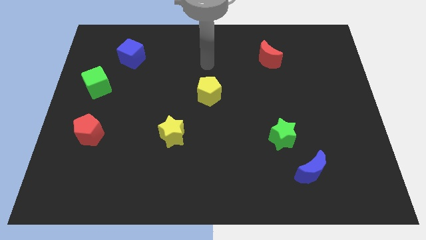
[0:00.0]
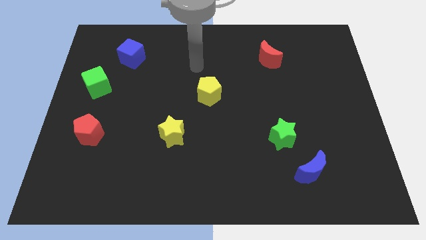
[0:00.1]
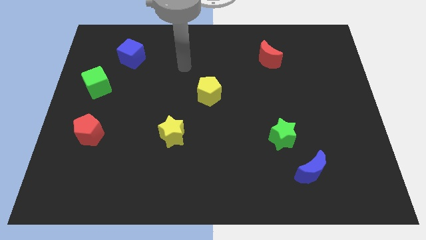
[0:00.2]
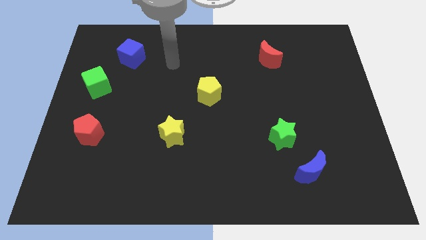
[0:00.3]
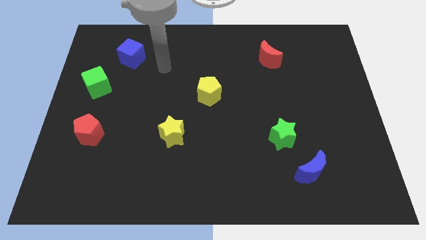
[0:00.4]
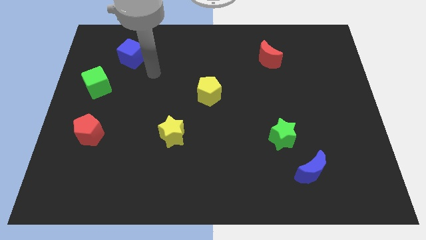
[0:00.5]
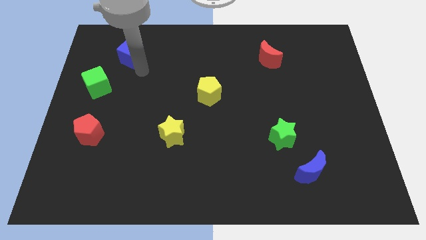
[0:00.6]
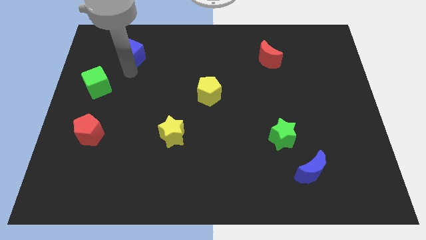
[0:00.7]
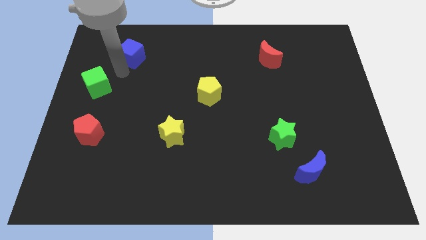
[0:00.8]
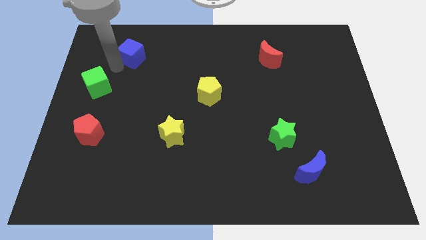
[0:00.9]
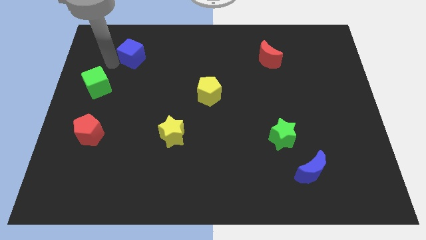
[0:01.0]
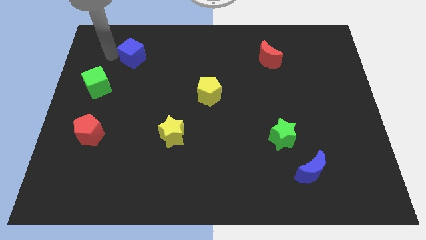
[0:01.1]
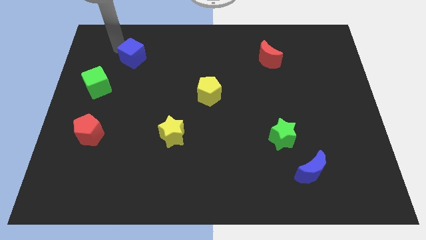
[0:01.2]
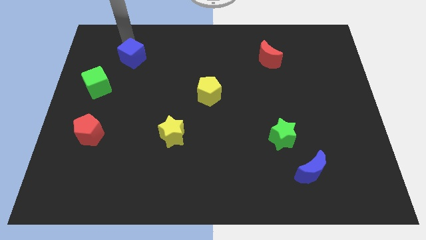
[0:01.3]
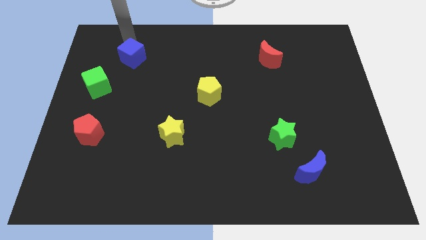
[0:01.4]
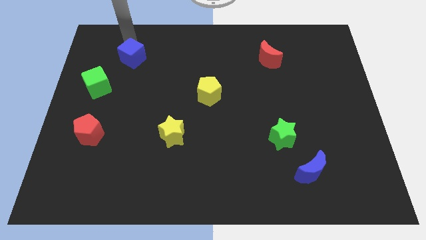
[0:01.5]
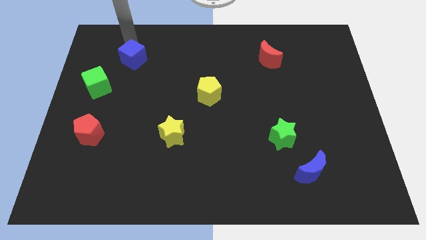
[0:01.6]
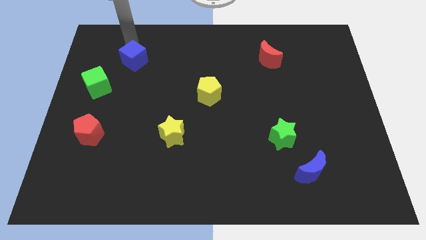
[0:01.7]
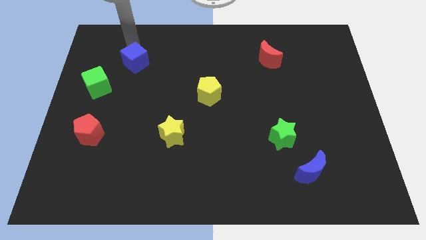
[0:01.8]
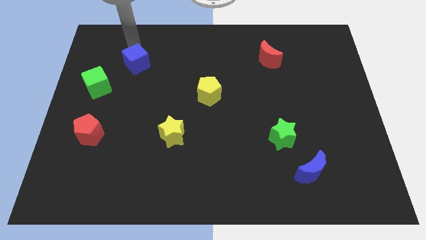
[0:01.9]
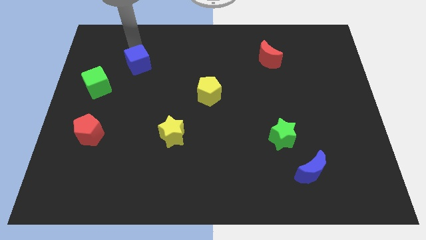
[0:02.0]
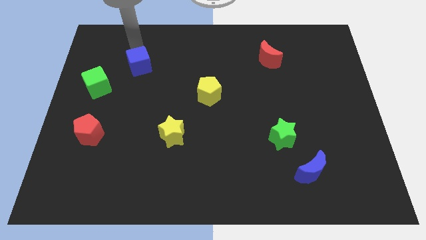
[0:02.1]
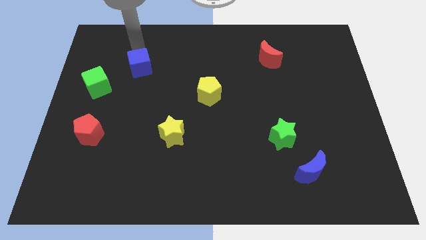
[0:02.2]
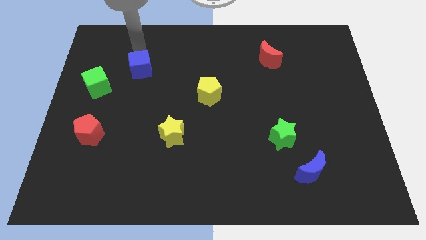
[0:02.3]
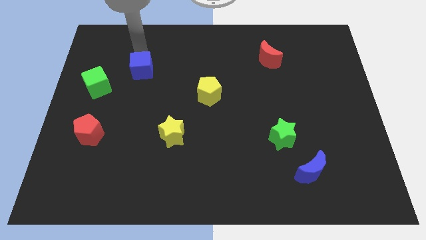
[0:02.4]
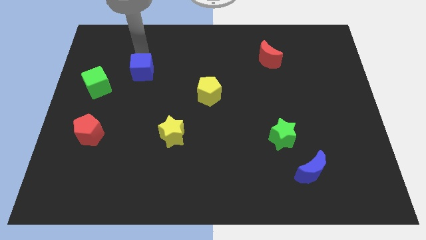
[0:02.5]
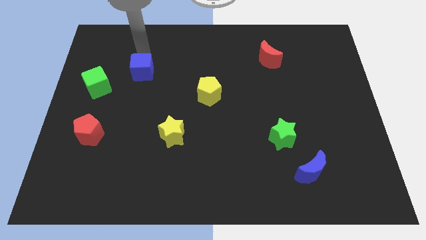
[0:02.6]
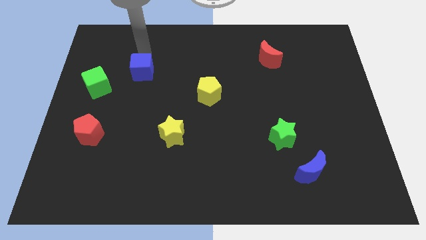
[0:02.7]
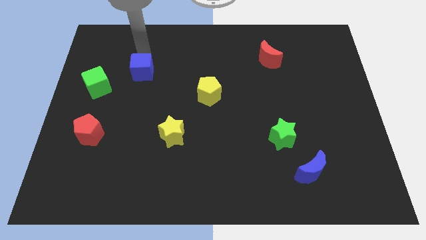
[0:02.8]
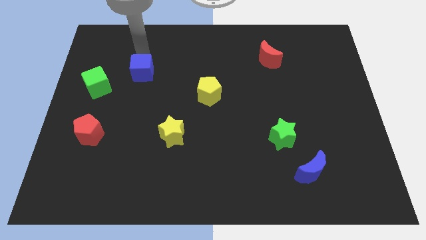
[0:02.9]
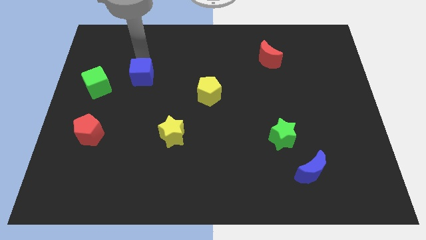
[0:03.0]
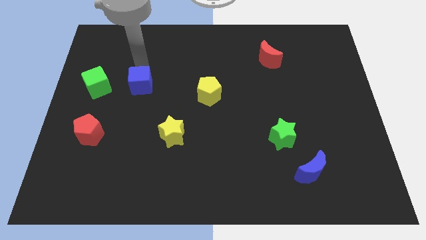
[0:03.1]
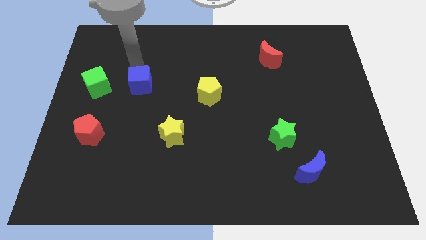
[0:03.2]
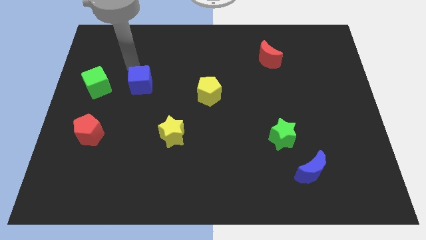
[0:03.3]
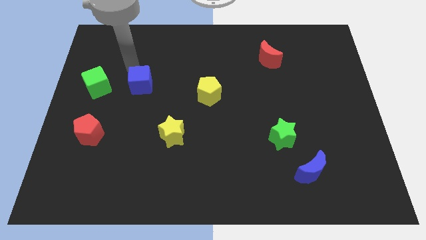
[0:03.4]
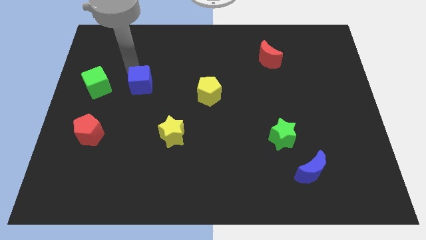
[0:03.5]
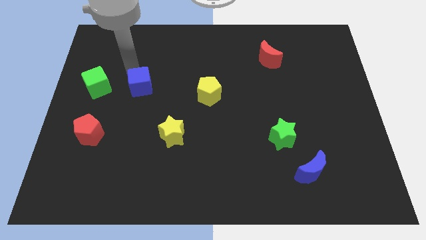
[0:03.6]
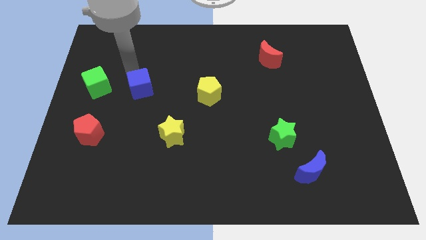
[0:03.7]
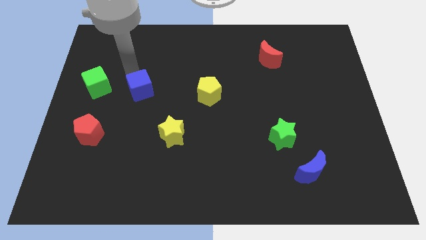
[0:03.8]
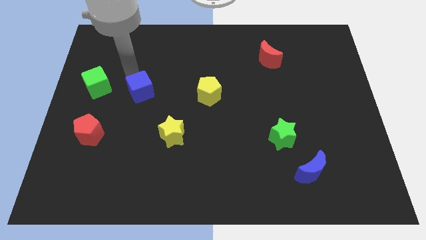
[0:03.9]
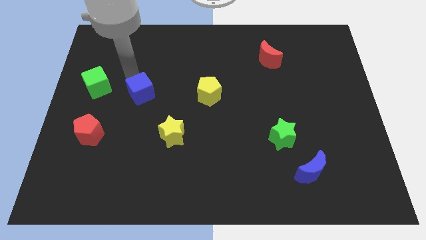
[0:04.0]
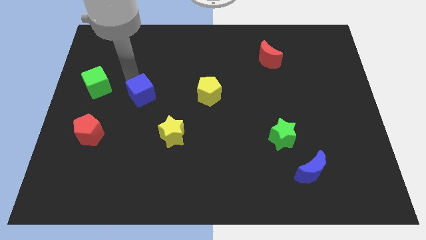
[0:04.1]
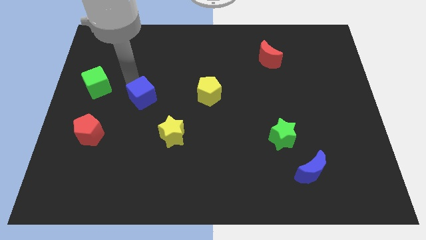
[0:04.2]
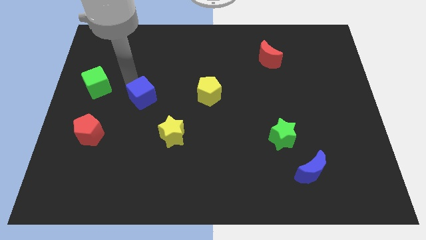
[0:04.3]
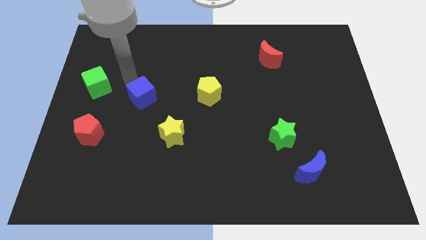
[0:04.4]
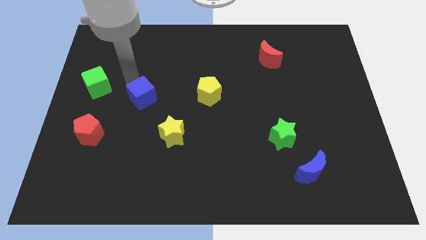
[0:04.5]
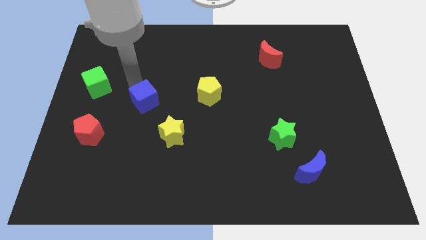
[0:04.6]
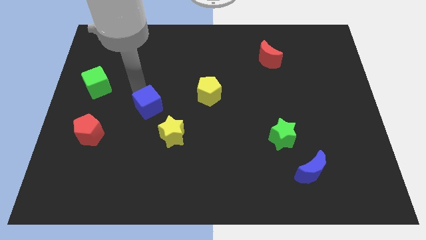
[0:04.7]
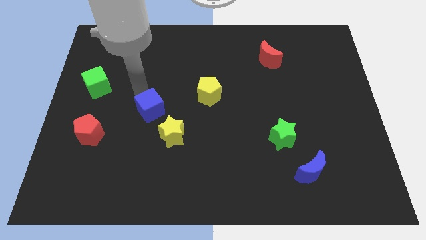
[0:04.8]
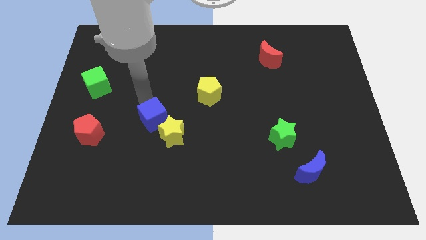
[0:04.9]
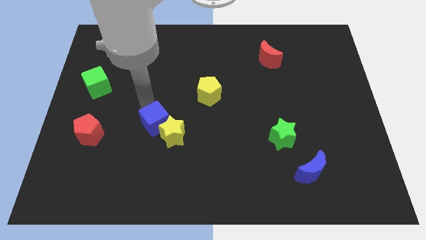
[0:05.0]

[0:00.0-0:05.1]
slide the blue cube to the yellow star

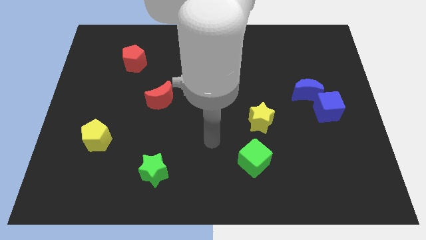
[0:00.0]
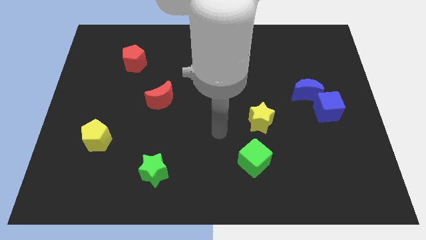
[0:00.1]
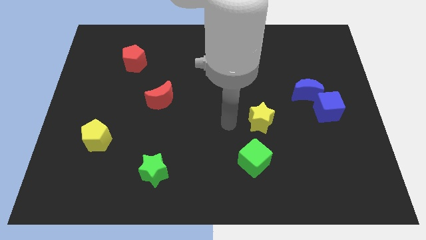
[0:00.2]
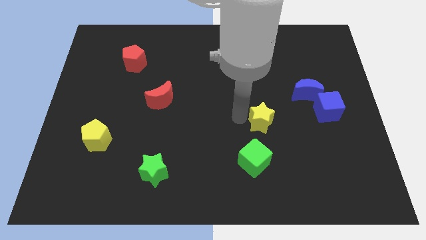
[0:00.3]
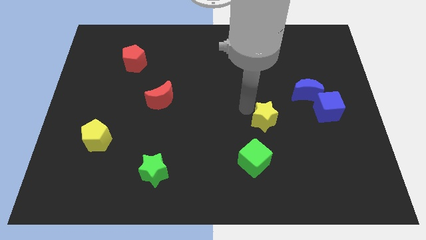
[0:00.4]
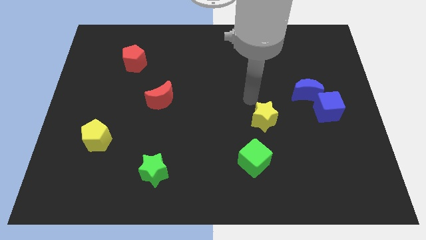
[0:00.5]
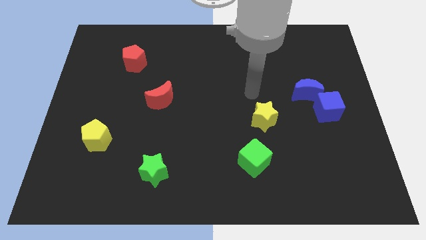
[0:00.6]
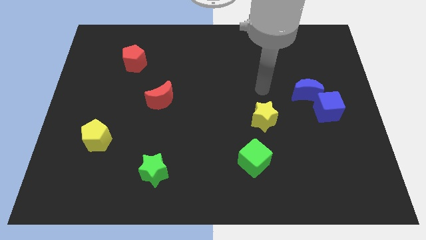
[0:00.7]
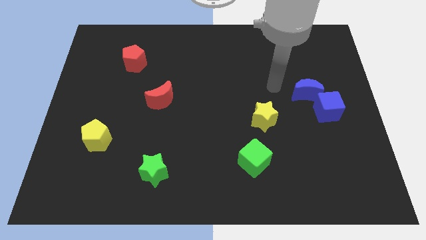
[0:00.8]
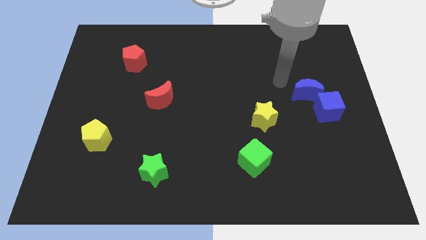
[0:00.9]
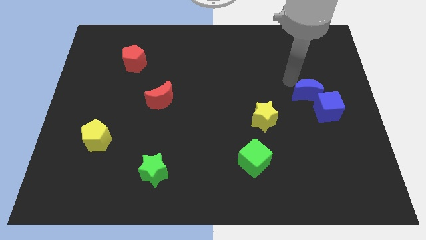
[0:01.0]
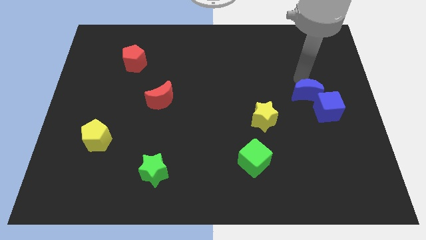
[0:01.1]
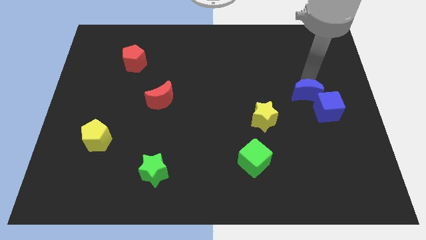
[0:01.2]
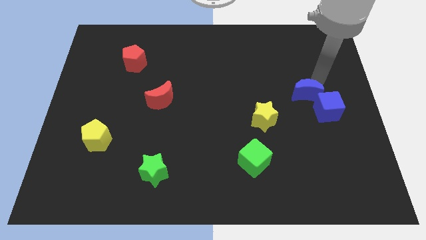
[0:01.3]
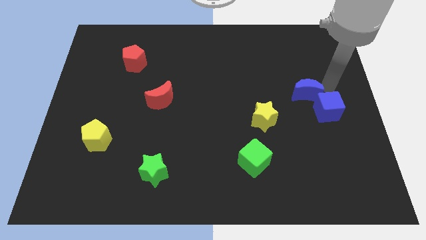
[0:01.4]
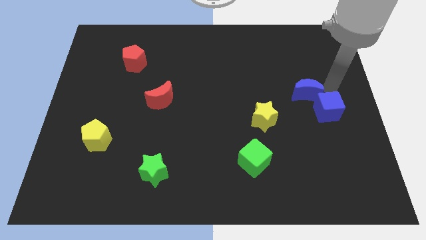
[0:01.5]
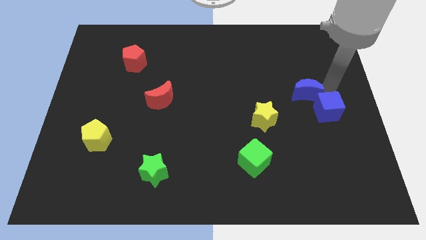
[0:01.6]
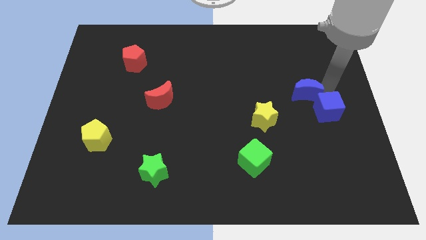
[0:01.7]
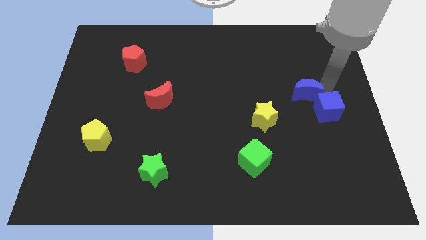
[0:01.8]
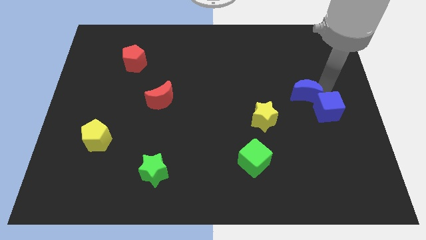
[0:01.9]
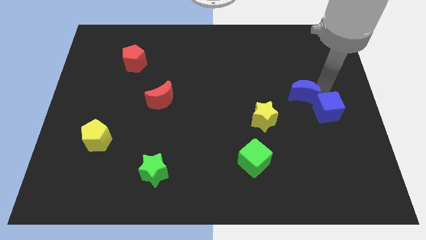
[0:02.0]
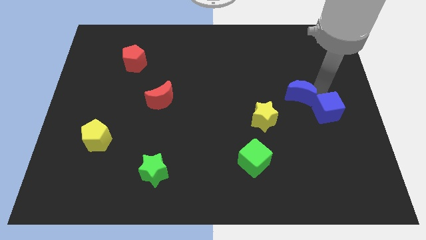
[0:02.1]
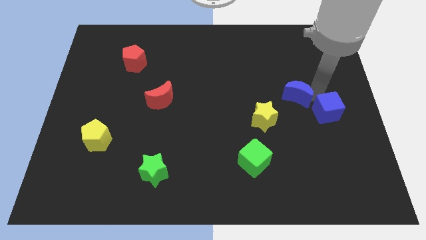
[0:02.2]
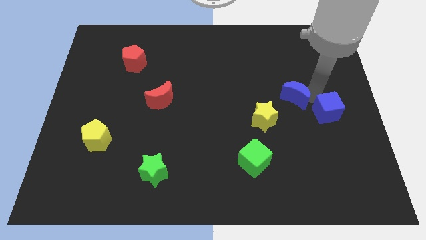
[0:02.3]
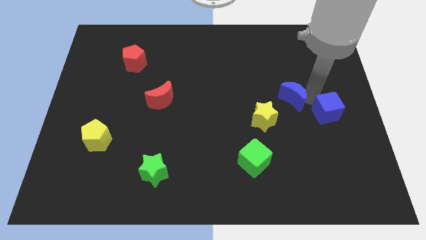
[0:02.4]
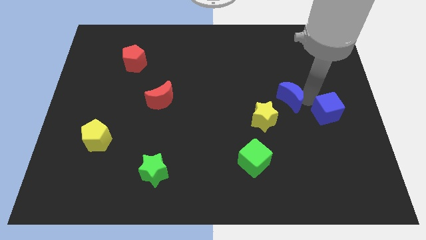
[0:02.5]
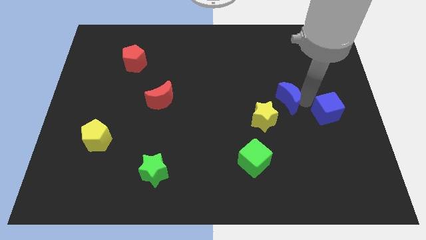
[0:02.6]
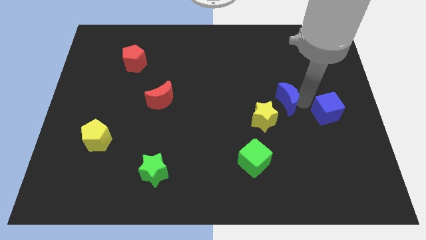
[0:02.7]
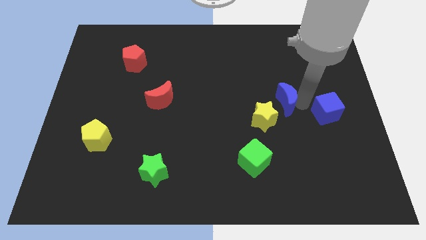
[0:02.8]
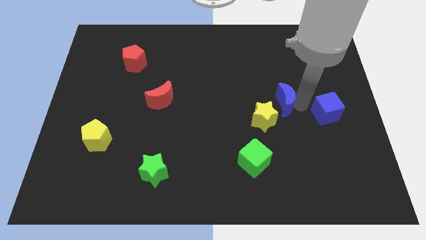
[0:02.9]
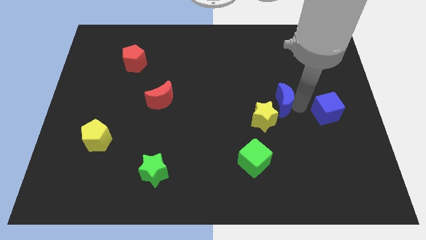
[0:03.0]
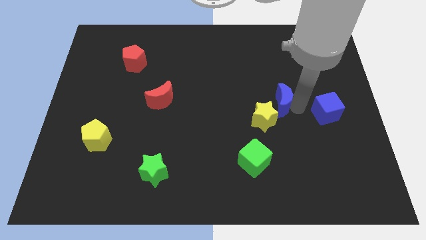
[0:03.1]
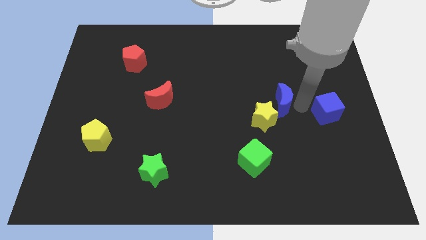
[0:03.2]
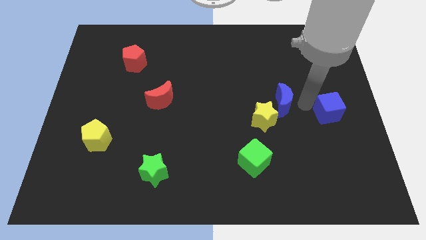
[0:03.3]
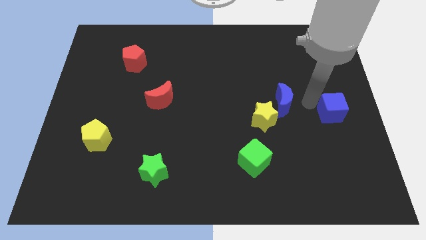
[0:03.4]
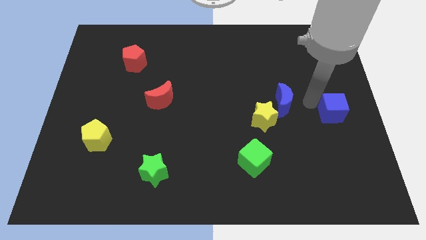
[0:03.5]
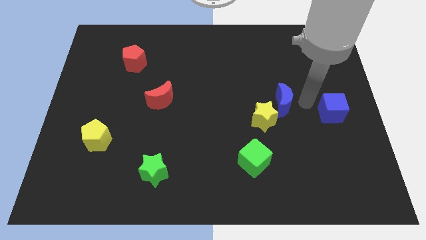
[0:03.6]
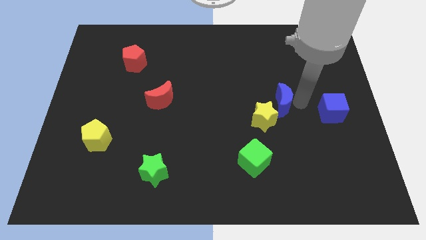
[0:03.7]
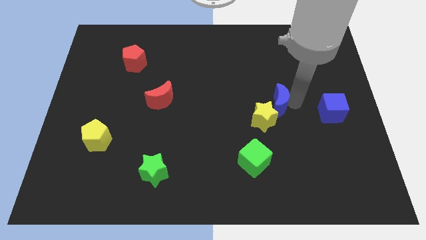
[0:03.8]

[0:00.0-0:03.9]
put the blue moon to the yellow star
